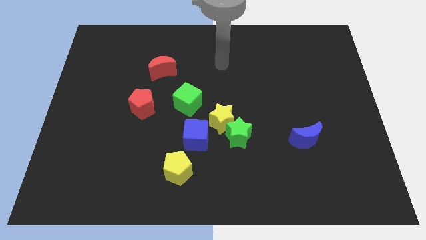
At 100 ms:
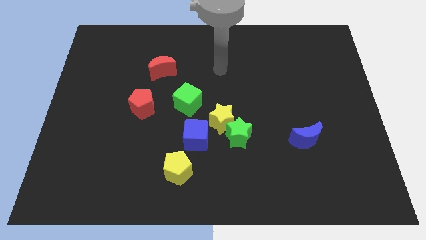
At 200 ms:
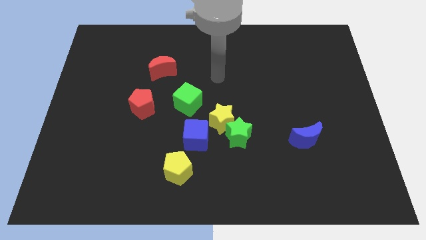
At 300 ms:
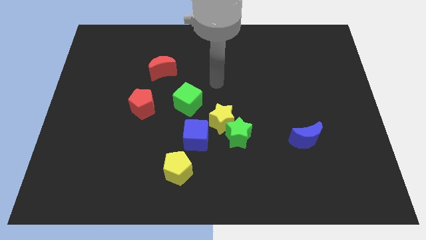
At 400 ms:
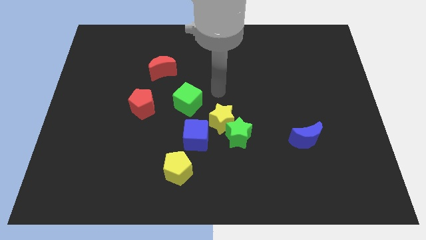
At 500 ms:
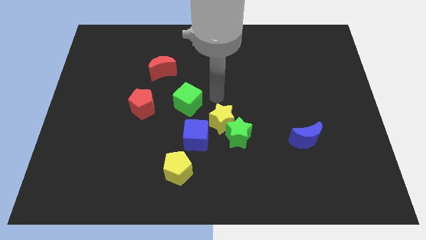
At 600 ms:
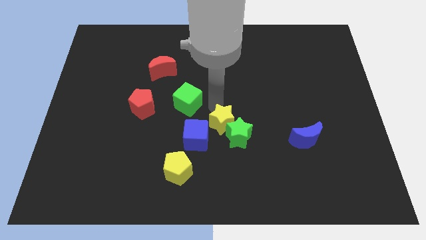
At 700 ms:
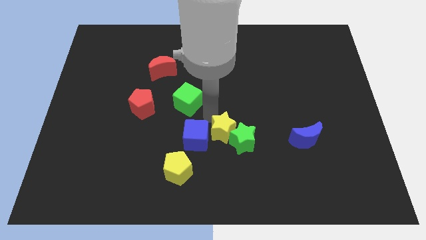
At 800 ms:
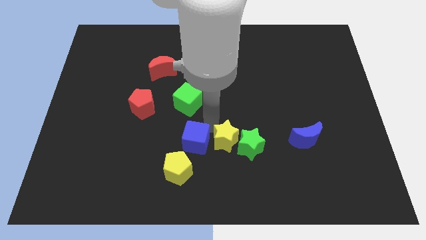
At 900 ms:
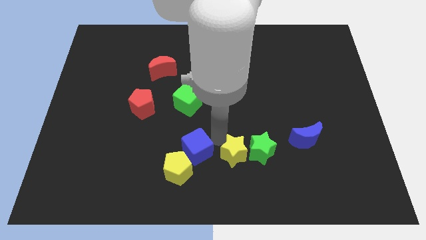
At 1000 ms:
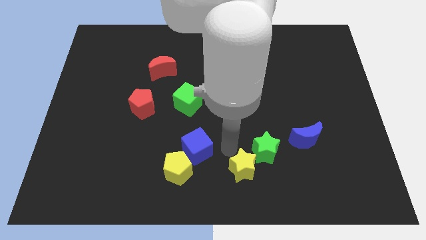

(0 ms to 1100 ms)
pull the green star apart from the yellow star and blue cube

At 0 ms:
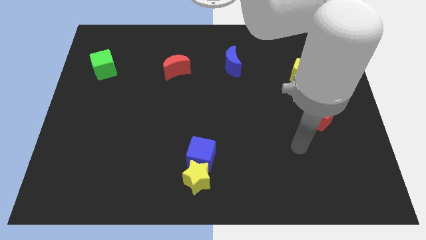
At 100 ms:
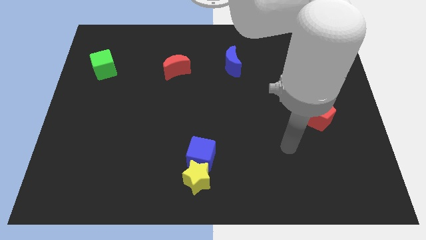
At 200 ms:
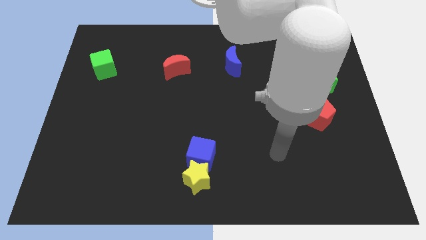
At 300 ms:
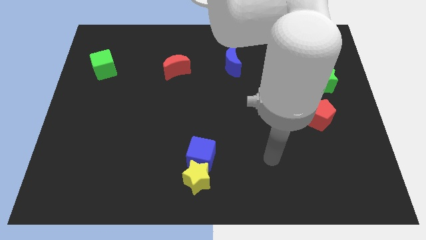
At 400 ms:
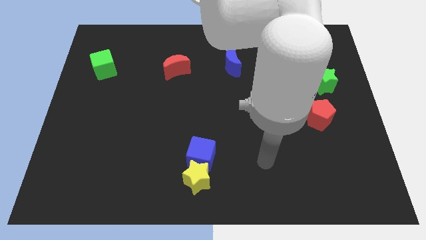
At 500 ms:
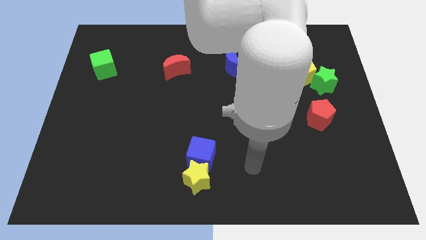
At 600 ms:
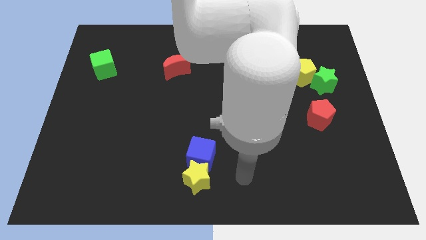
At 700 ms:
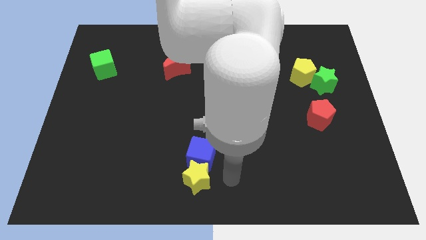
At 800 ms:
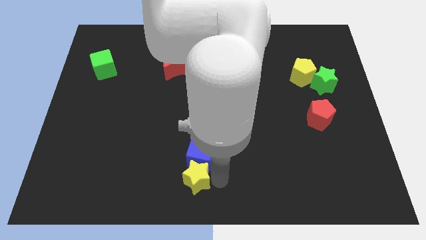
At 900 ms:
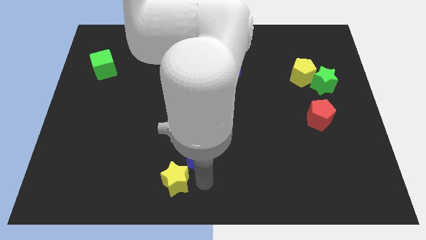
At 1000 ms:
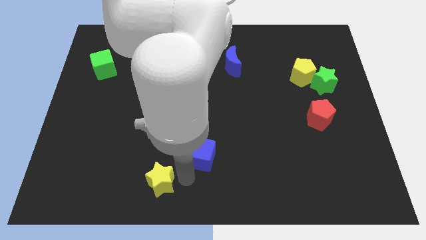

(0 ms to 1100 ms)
pull the blue cube apart from the yellow star

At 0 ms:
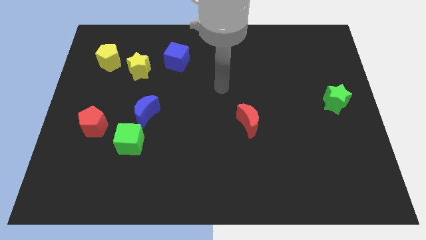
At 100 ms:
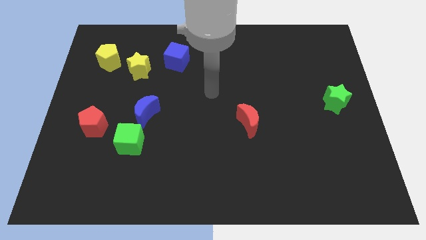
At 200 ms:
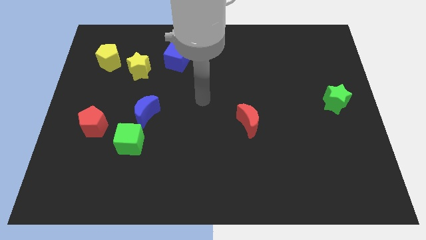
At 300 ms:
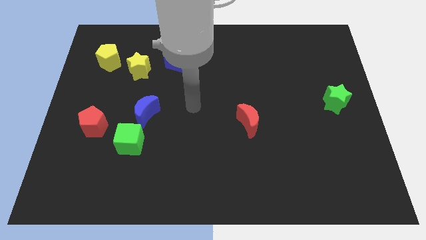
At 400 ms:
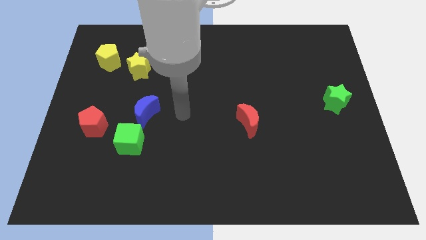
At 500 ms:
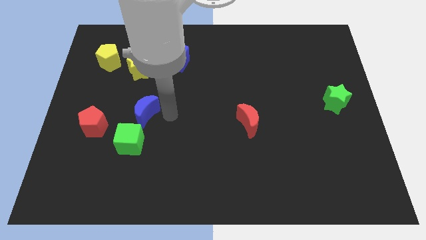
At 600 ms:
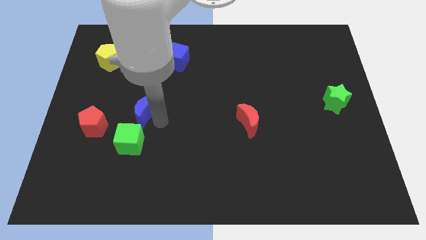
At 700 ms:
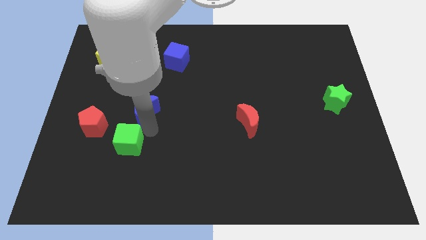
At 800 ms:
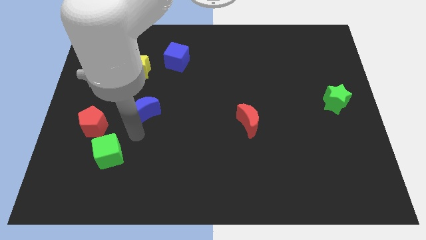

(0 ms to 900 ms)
pull the blue moon apart from the green cube

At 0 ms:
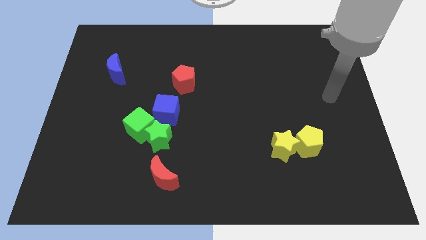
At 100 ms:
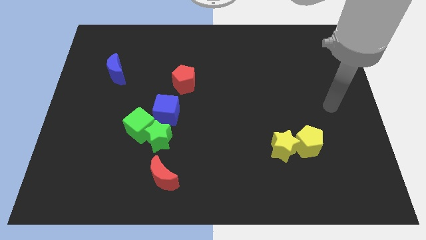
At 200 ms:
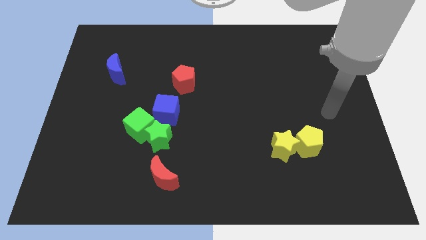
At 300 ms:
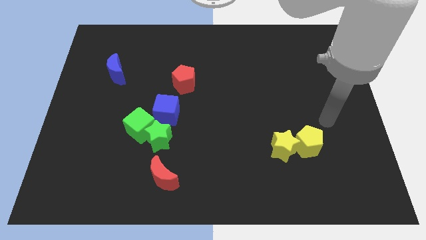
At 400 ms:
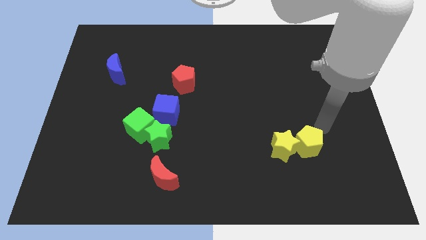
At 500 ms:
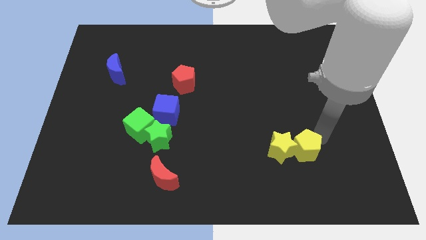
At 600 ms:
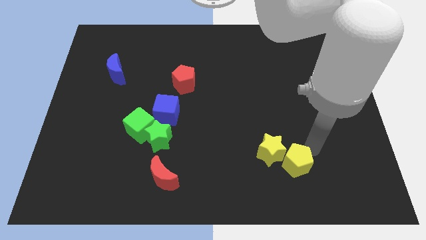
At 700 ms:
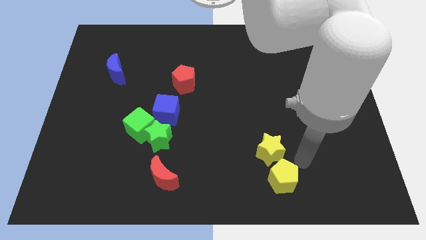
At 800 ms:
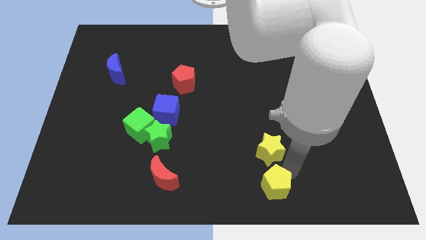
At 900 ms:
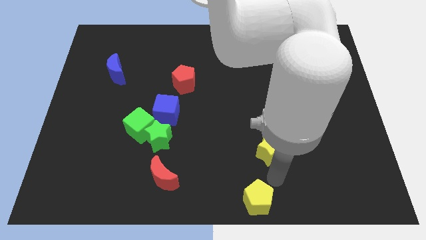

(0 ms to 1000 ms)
pull the yellow star apart from the yellow pentagon

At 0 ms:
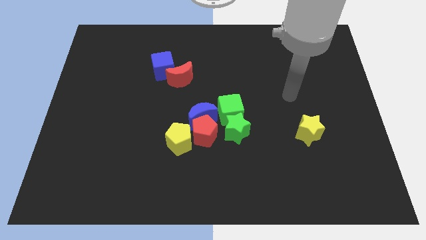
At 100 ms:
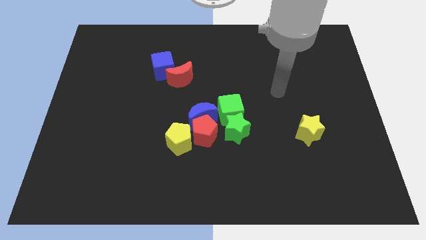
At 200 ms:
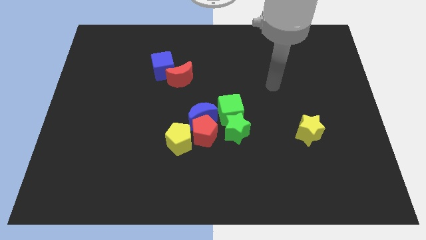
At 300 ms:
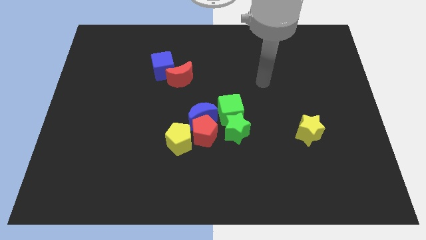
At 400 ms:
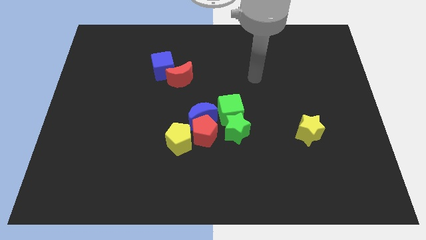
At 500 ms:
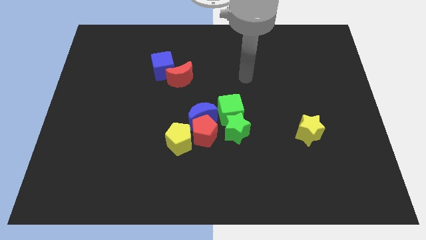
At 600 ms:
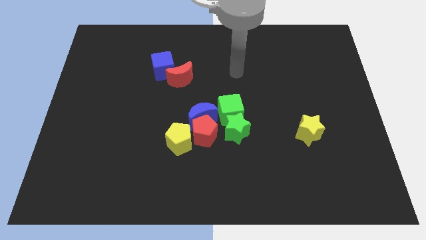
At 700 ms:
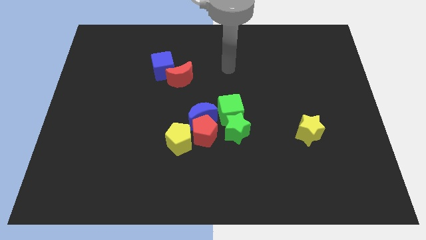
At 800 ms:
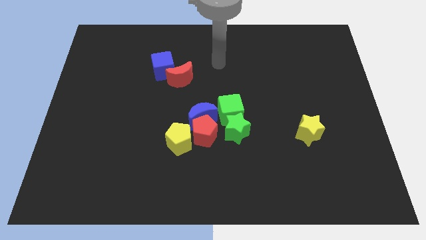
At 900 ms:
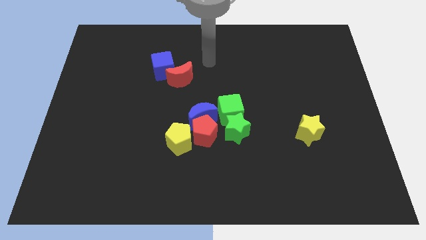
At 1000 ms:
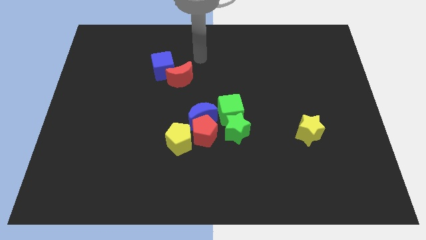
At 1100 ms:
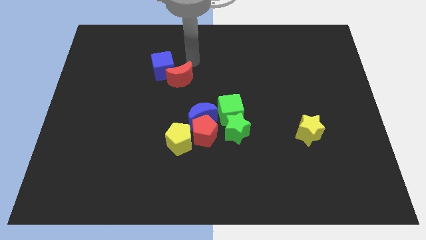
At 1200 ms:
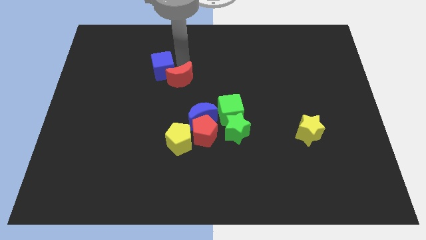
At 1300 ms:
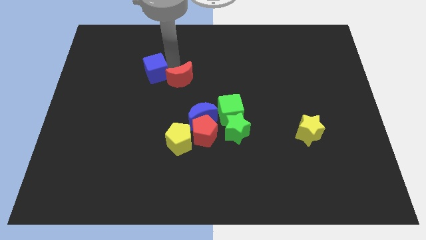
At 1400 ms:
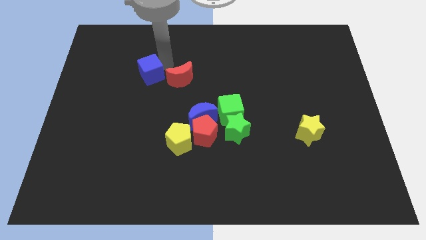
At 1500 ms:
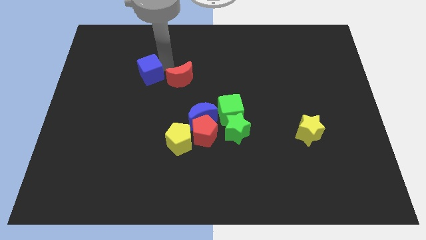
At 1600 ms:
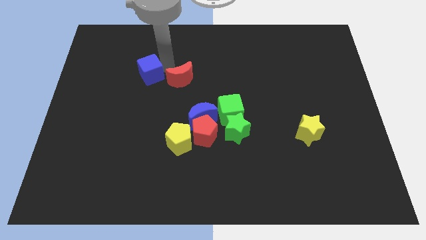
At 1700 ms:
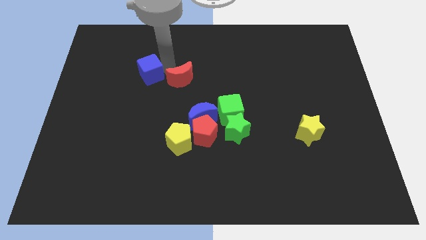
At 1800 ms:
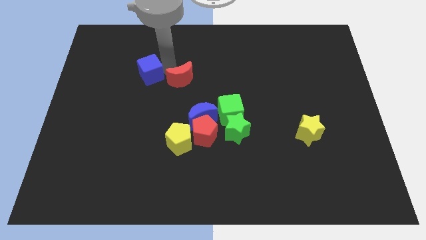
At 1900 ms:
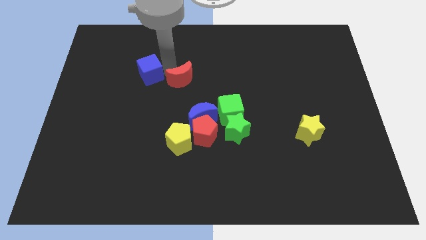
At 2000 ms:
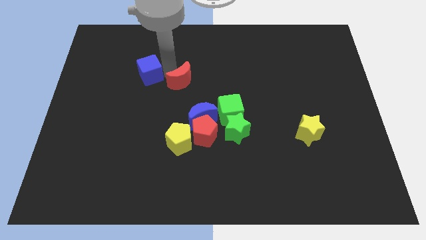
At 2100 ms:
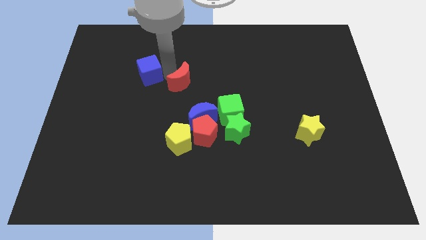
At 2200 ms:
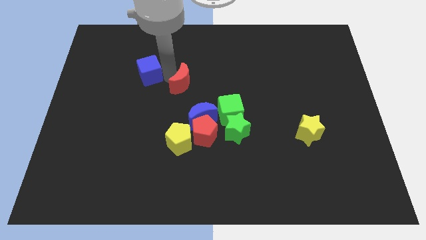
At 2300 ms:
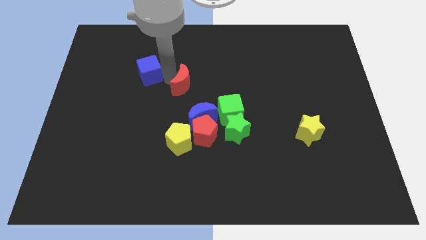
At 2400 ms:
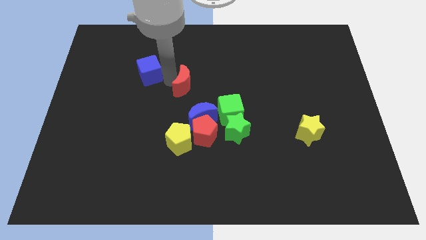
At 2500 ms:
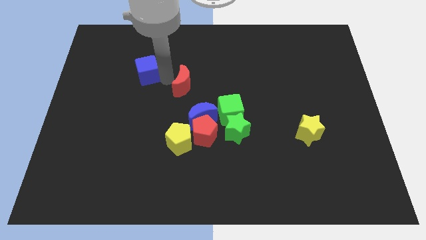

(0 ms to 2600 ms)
pull the red moon apart from the blue cube

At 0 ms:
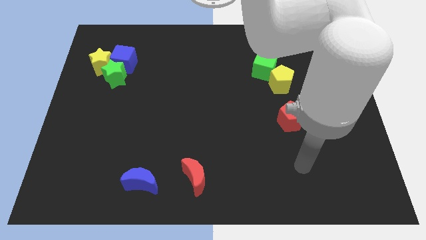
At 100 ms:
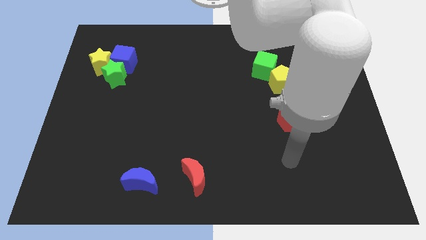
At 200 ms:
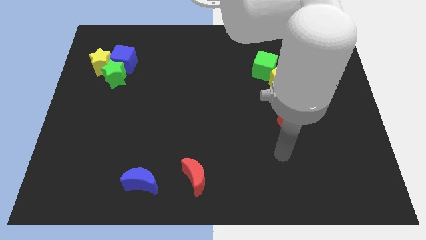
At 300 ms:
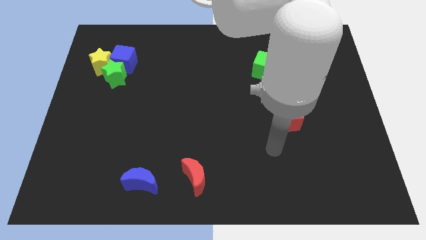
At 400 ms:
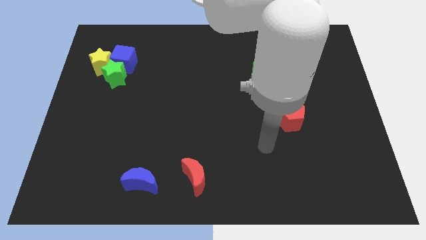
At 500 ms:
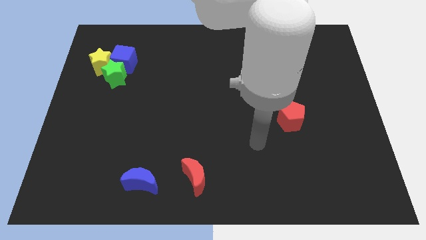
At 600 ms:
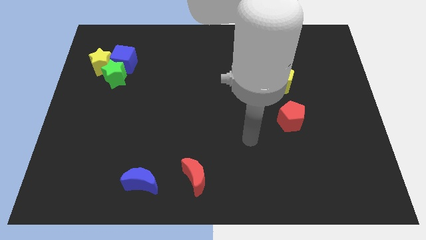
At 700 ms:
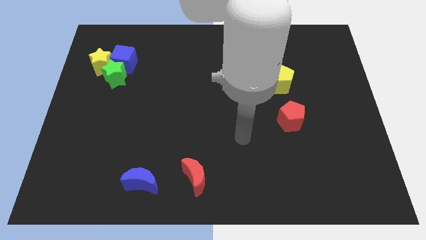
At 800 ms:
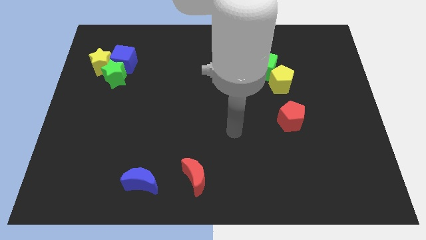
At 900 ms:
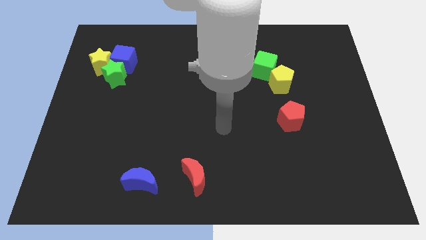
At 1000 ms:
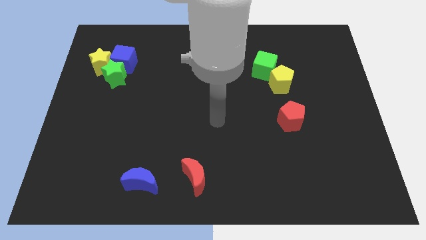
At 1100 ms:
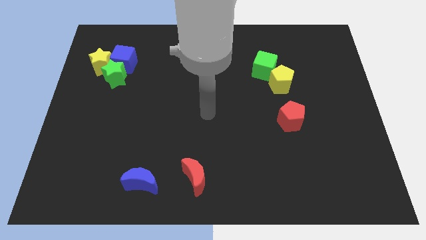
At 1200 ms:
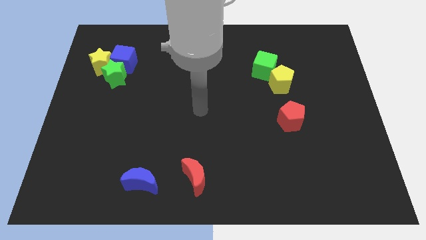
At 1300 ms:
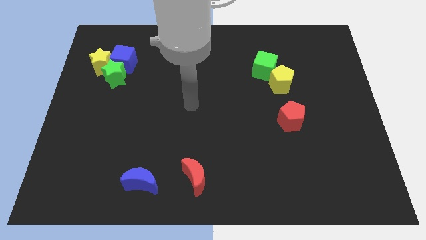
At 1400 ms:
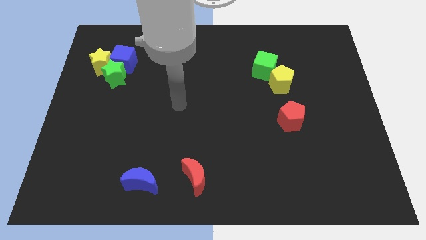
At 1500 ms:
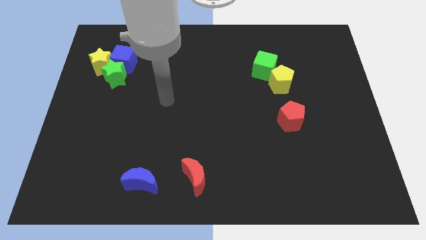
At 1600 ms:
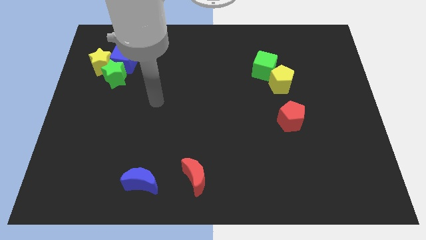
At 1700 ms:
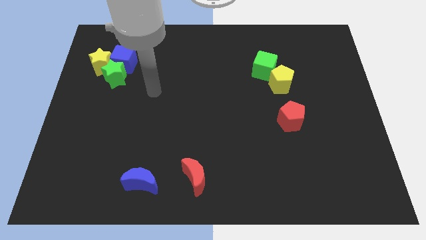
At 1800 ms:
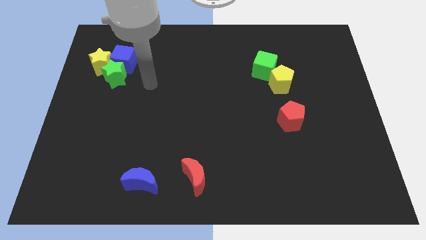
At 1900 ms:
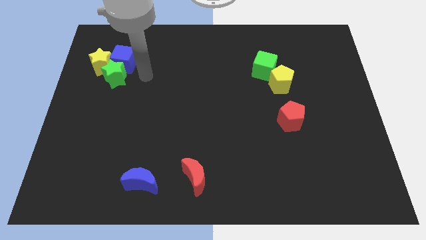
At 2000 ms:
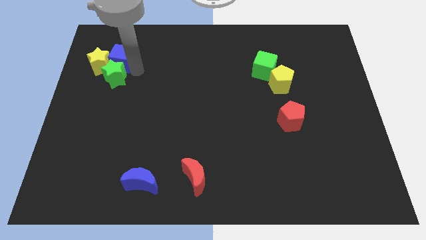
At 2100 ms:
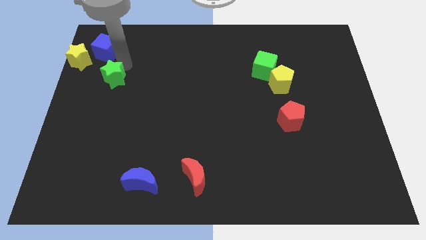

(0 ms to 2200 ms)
move the green star away from the blue cube and yellow star

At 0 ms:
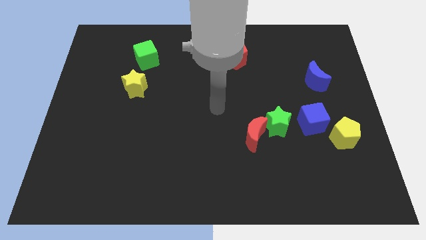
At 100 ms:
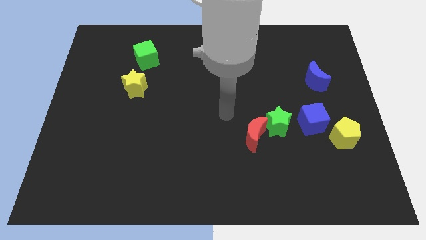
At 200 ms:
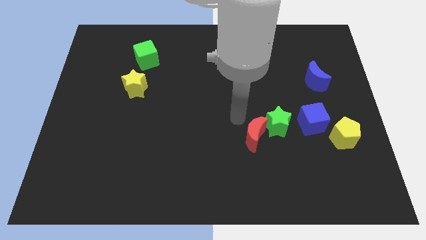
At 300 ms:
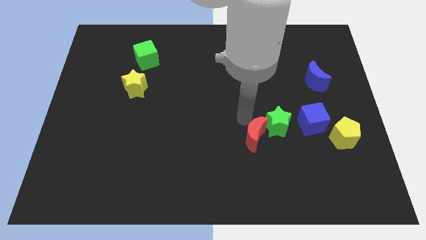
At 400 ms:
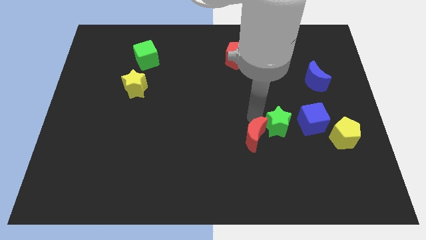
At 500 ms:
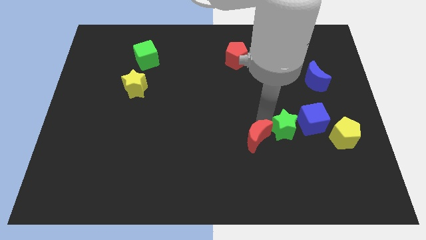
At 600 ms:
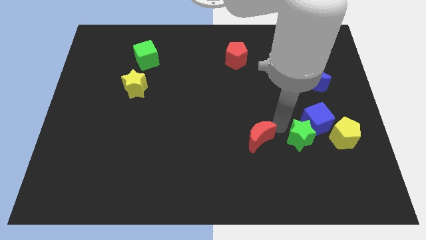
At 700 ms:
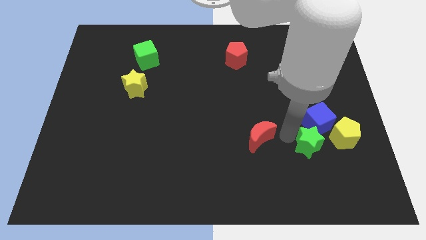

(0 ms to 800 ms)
separate the red moon from the green star
